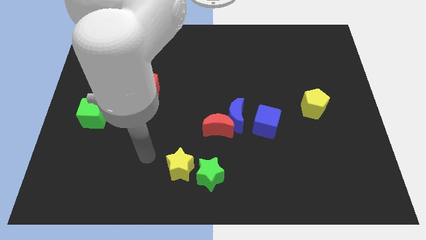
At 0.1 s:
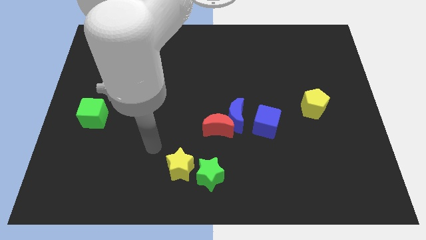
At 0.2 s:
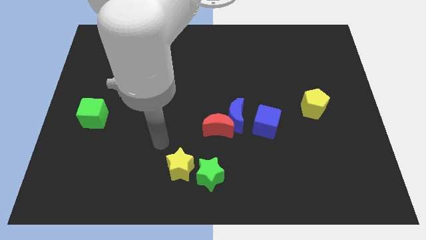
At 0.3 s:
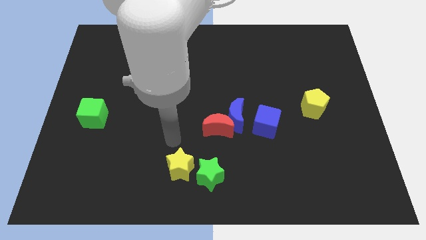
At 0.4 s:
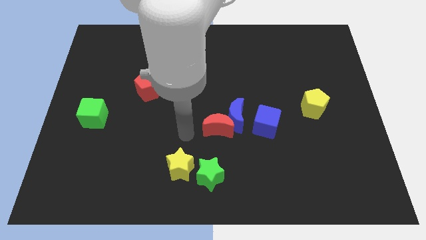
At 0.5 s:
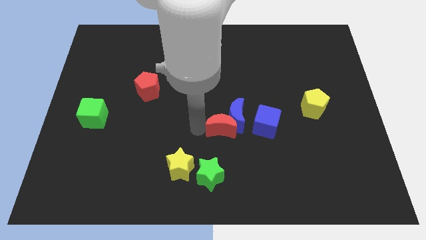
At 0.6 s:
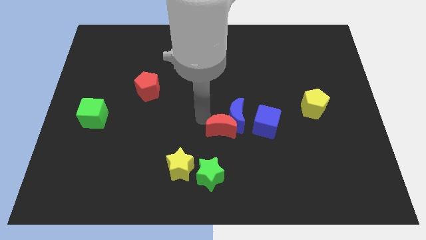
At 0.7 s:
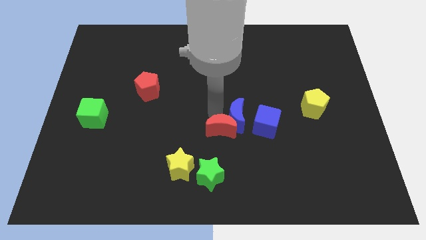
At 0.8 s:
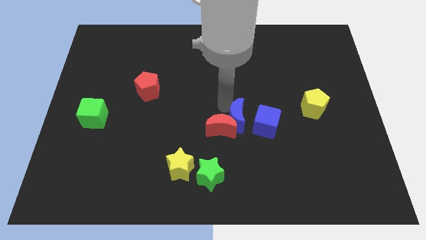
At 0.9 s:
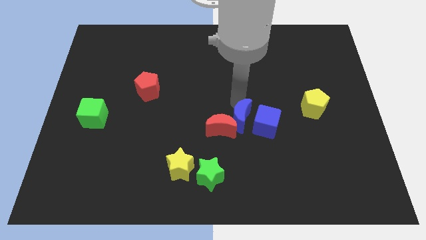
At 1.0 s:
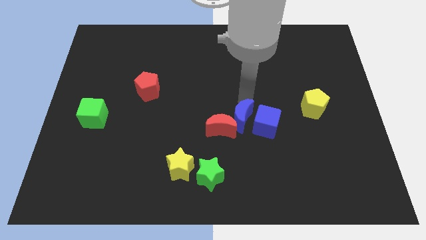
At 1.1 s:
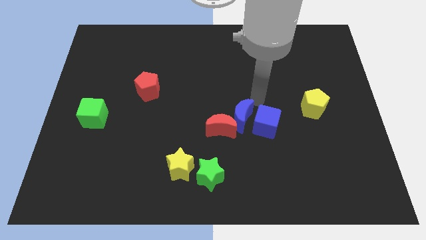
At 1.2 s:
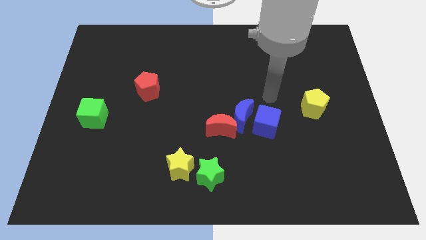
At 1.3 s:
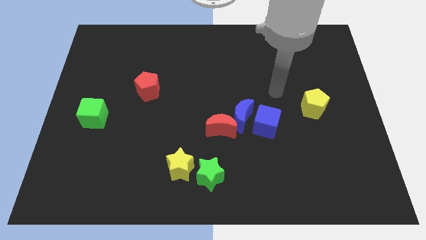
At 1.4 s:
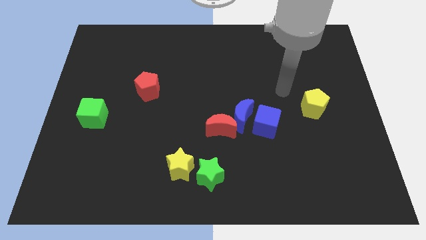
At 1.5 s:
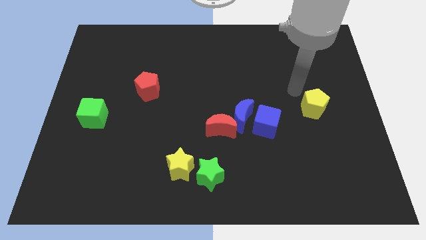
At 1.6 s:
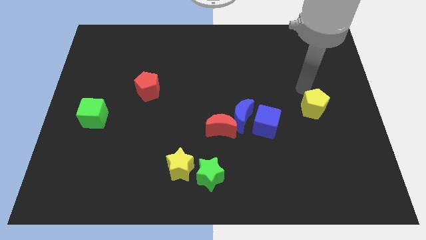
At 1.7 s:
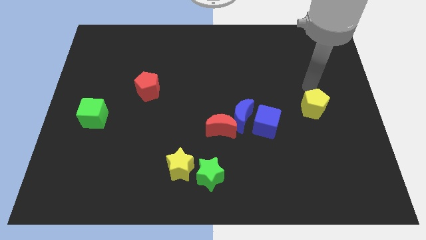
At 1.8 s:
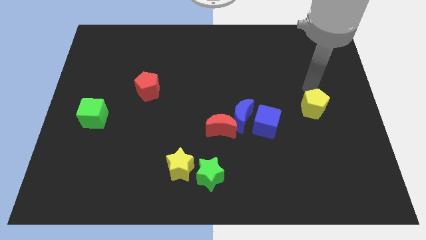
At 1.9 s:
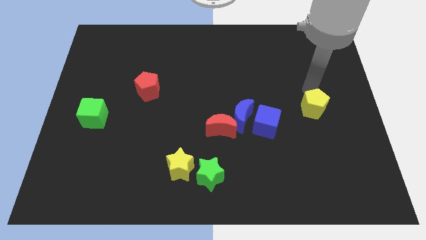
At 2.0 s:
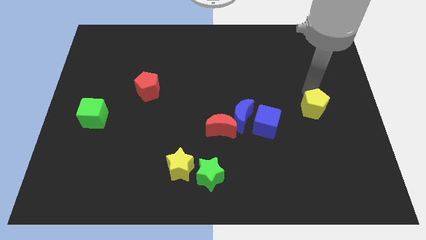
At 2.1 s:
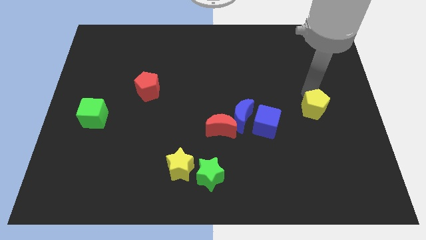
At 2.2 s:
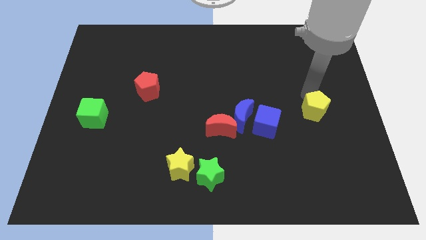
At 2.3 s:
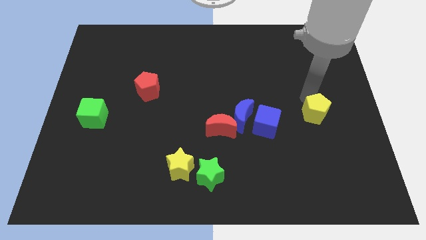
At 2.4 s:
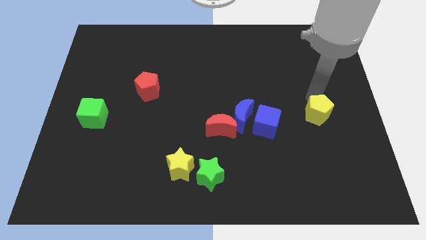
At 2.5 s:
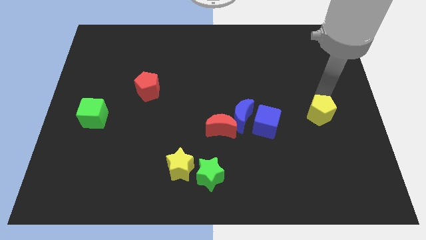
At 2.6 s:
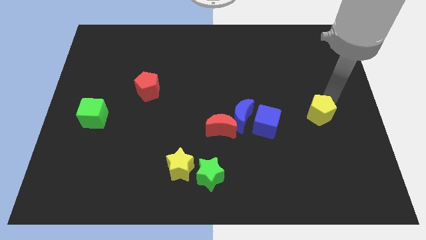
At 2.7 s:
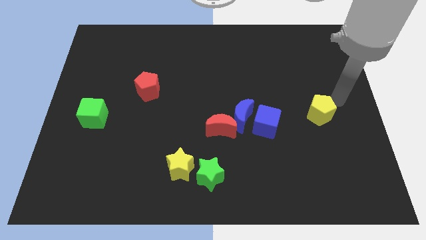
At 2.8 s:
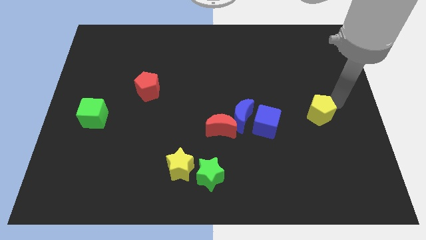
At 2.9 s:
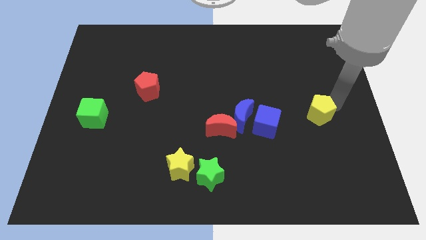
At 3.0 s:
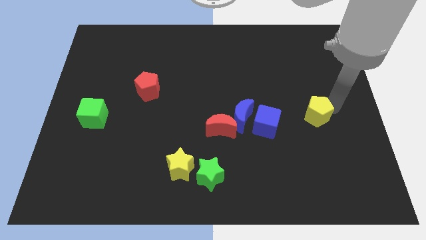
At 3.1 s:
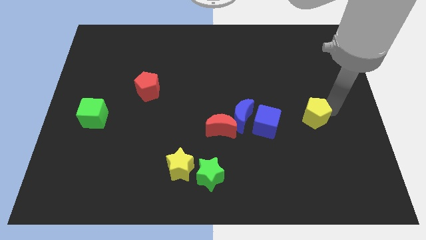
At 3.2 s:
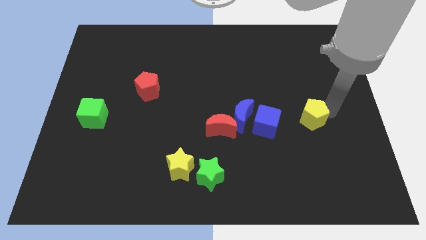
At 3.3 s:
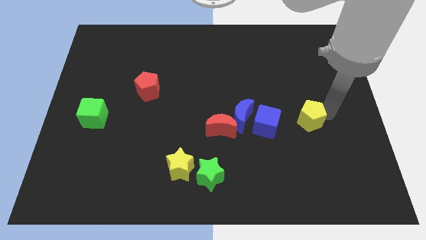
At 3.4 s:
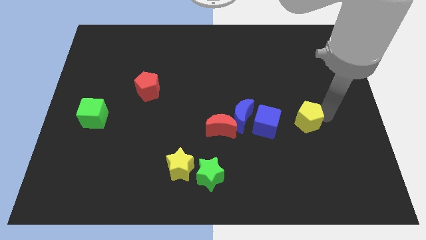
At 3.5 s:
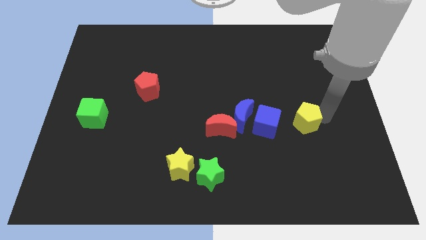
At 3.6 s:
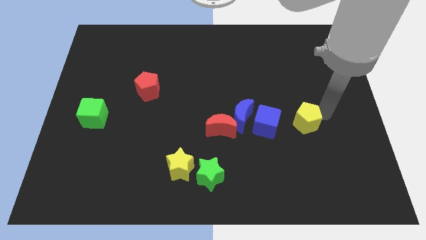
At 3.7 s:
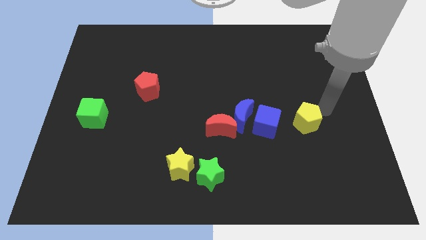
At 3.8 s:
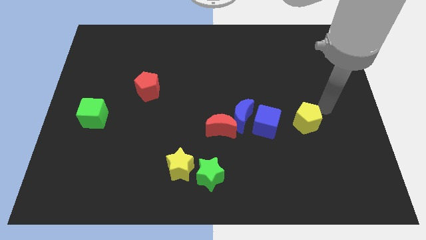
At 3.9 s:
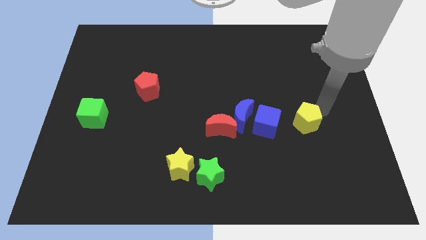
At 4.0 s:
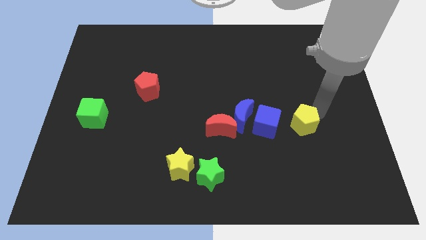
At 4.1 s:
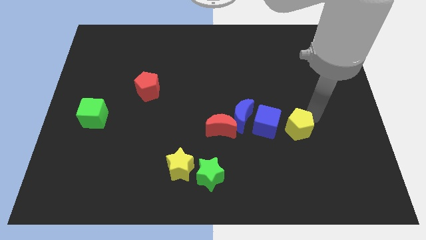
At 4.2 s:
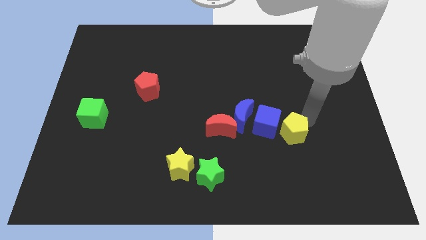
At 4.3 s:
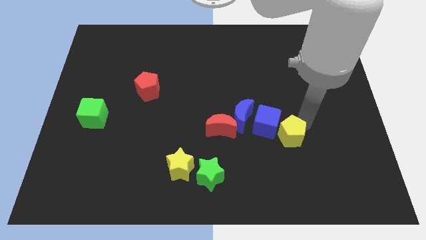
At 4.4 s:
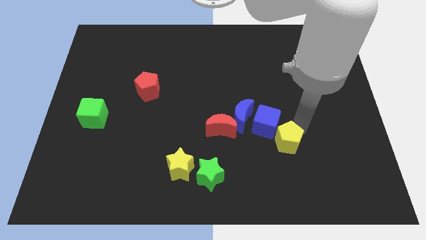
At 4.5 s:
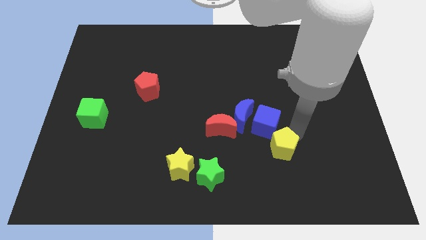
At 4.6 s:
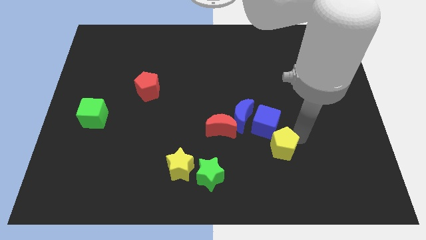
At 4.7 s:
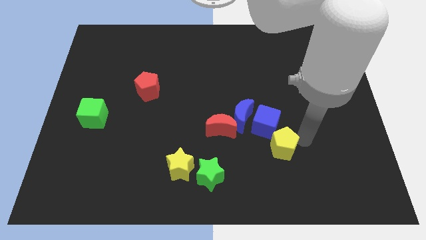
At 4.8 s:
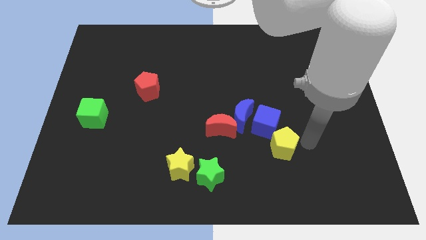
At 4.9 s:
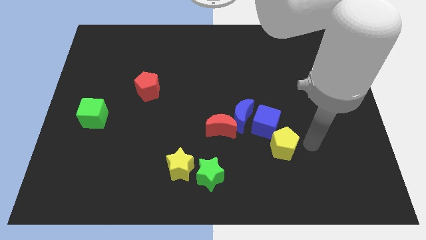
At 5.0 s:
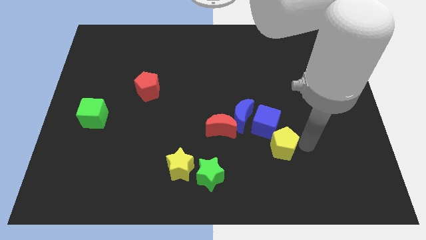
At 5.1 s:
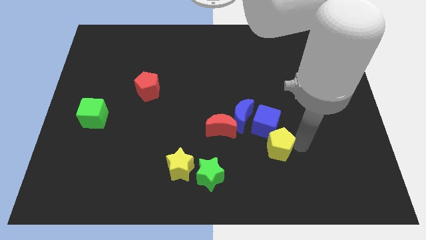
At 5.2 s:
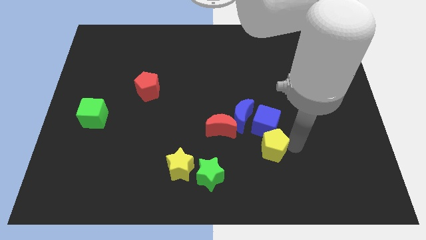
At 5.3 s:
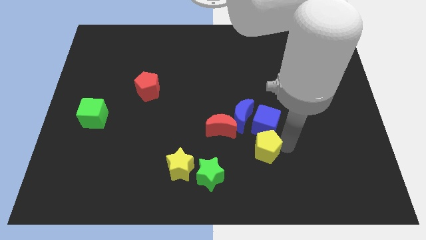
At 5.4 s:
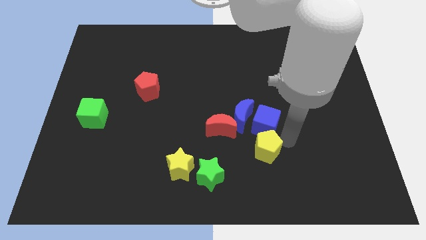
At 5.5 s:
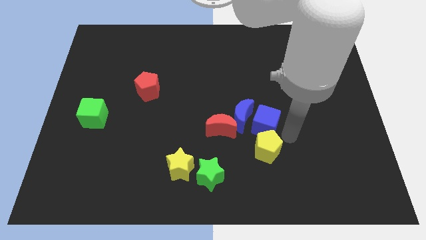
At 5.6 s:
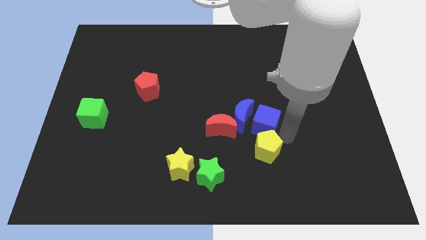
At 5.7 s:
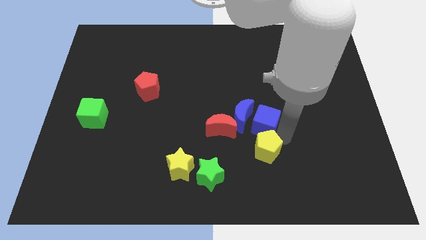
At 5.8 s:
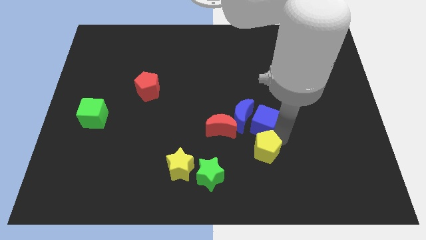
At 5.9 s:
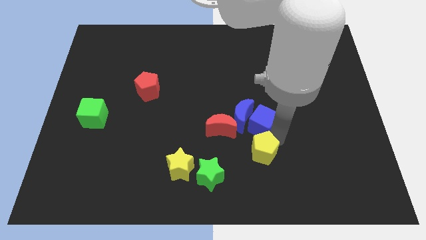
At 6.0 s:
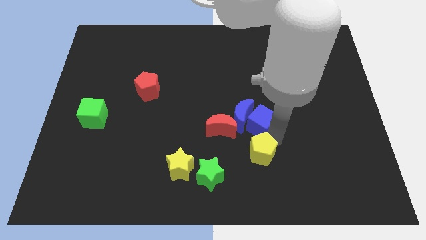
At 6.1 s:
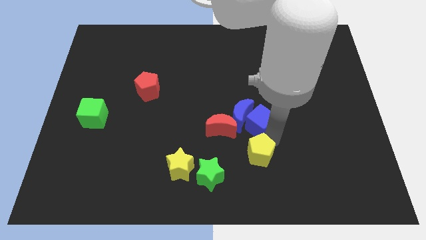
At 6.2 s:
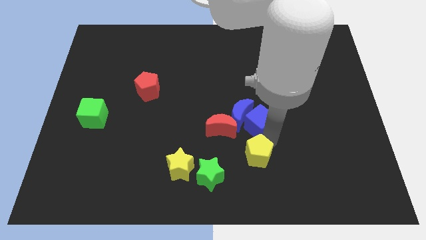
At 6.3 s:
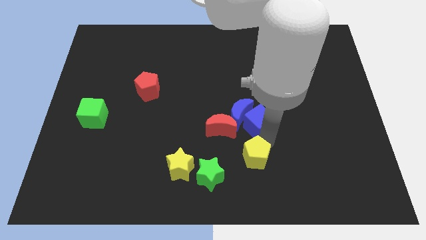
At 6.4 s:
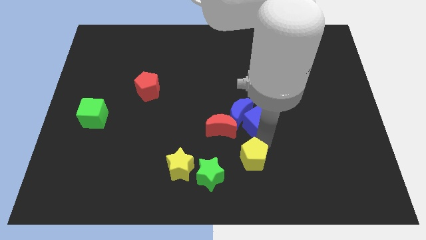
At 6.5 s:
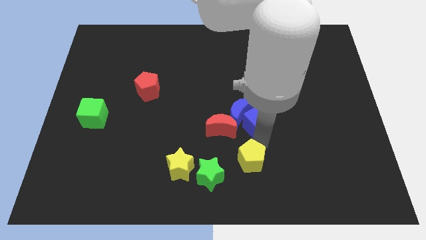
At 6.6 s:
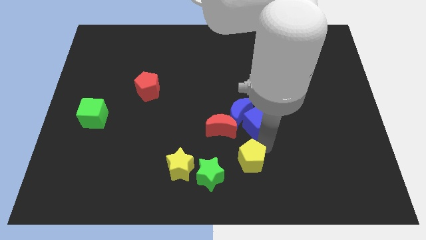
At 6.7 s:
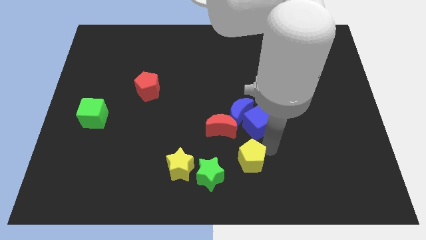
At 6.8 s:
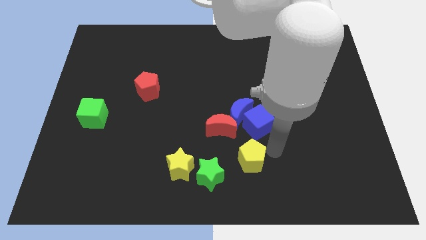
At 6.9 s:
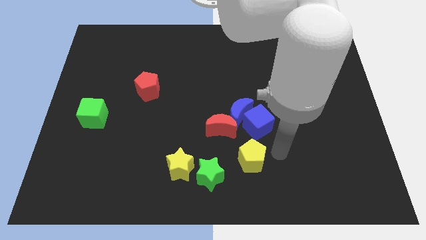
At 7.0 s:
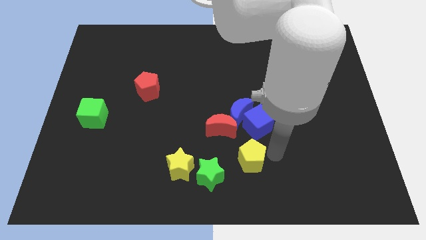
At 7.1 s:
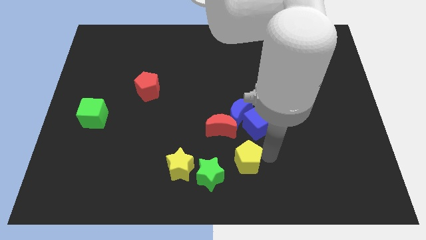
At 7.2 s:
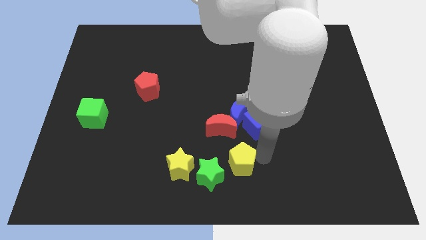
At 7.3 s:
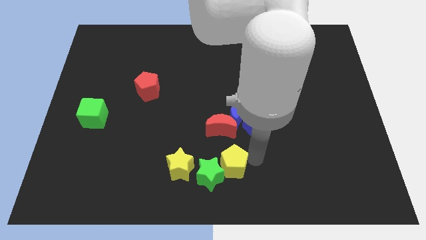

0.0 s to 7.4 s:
push the yellow pentagon close to the green star
